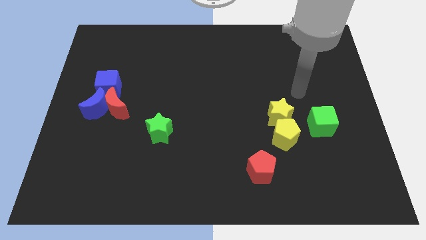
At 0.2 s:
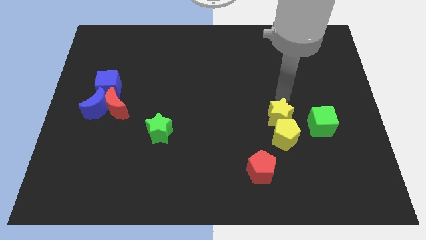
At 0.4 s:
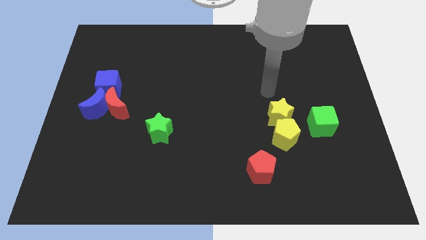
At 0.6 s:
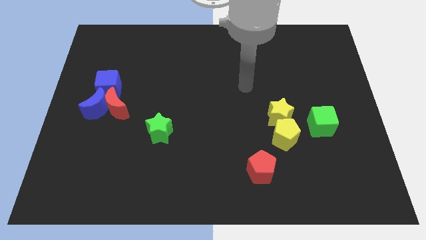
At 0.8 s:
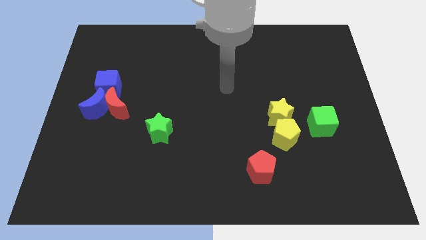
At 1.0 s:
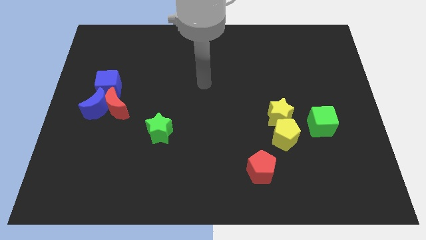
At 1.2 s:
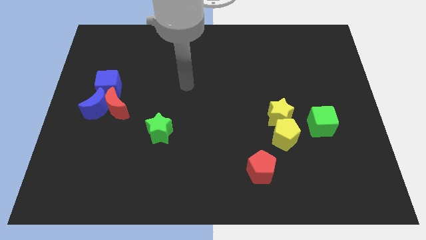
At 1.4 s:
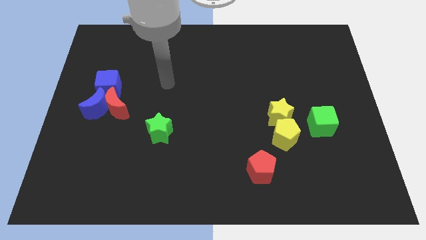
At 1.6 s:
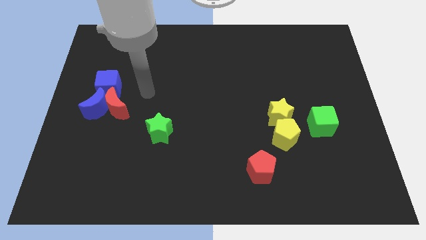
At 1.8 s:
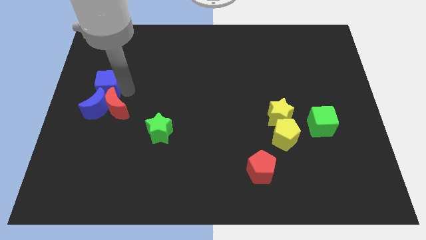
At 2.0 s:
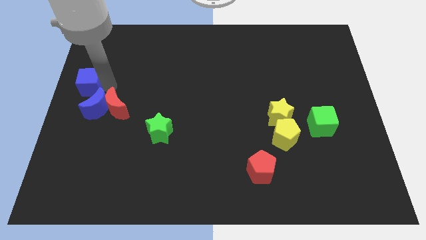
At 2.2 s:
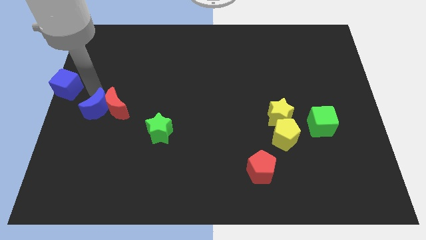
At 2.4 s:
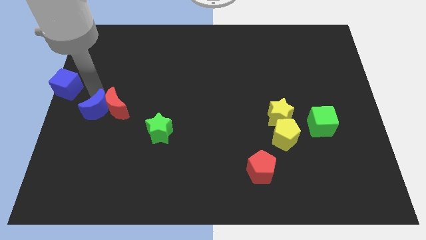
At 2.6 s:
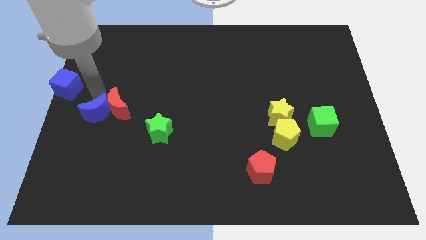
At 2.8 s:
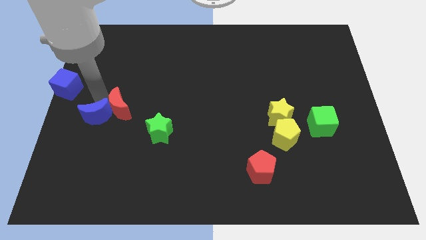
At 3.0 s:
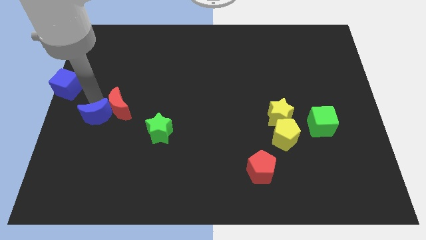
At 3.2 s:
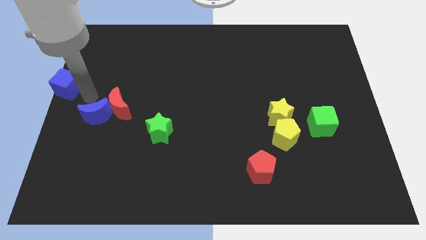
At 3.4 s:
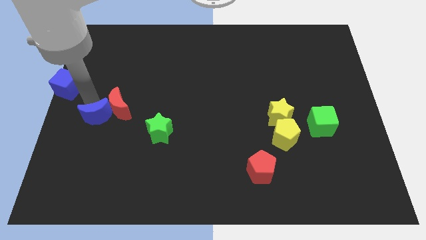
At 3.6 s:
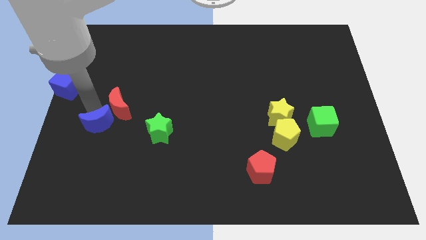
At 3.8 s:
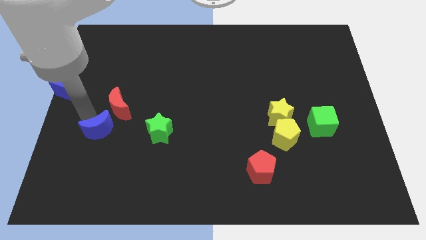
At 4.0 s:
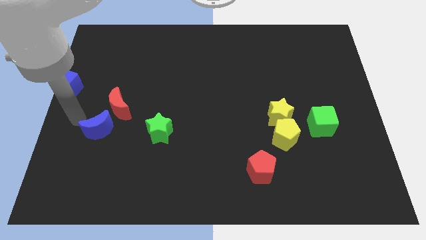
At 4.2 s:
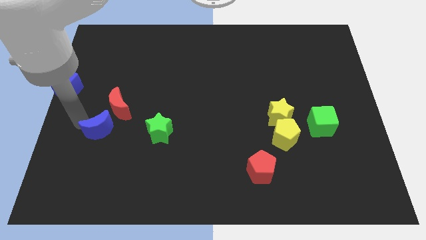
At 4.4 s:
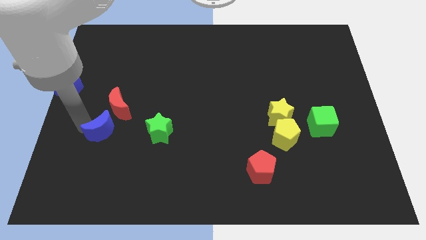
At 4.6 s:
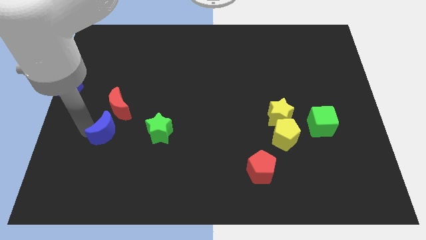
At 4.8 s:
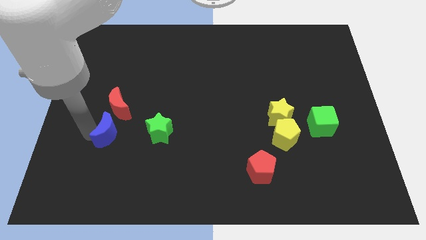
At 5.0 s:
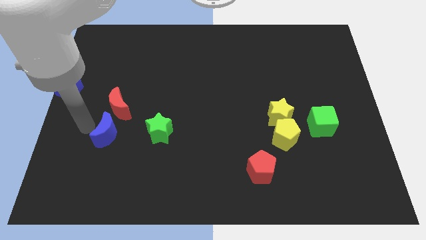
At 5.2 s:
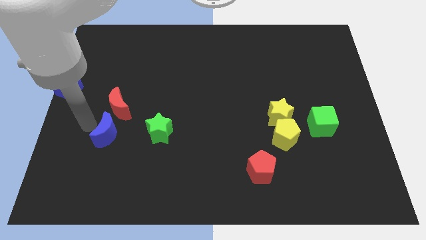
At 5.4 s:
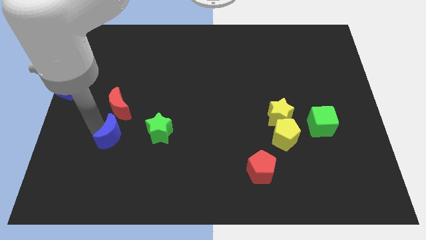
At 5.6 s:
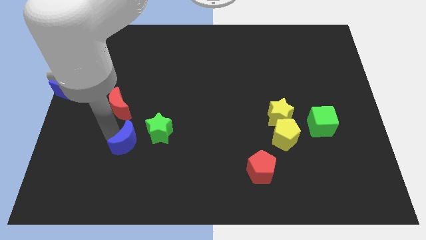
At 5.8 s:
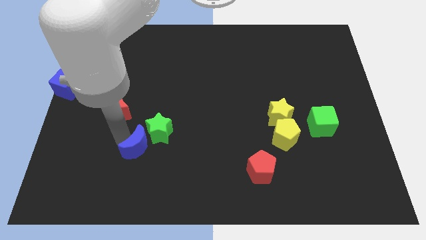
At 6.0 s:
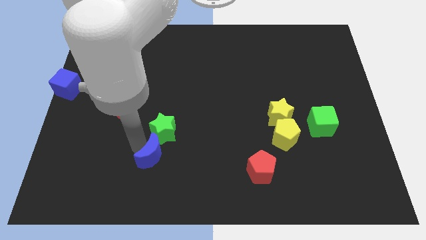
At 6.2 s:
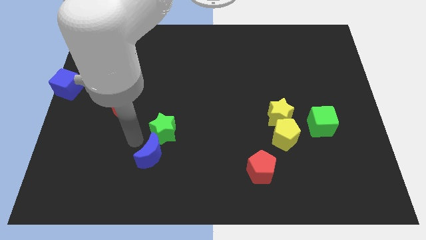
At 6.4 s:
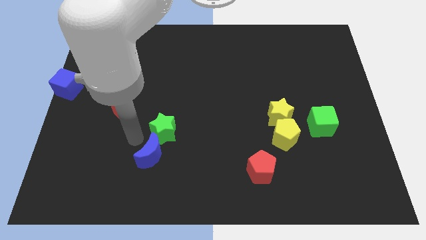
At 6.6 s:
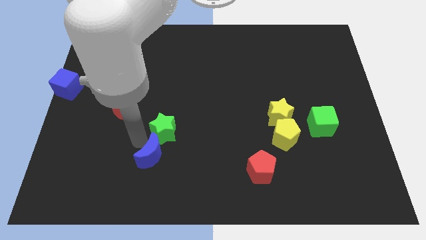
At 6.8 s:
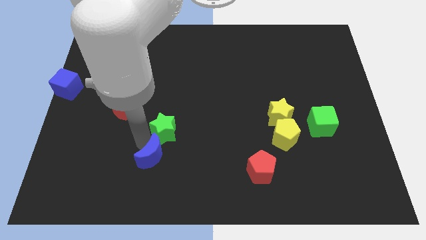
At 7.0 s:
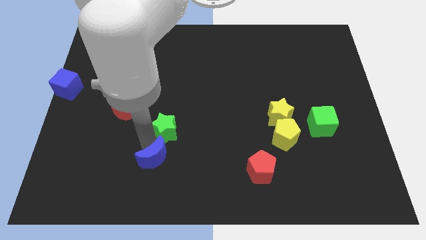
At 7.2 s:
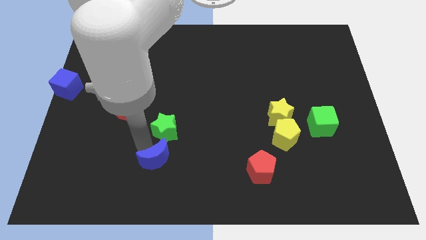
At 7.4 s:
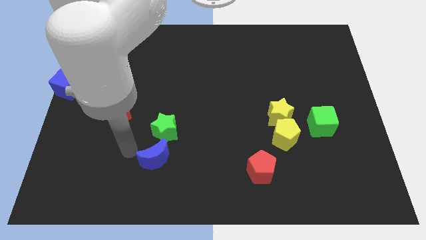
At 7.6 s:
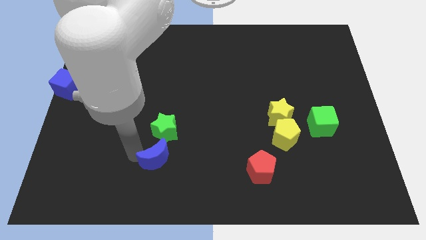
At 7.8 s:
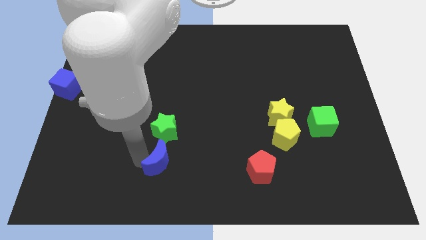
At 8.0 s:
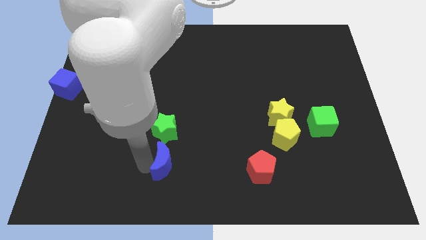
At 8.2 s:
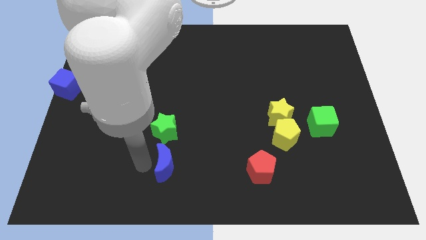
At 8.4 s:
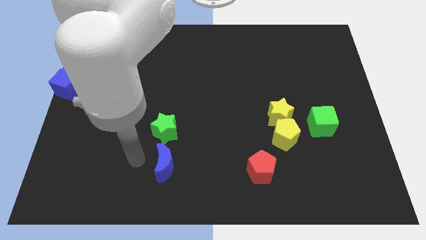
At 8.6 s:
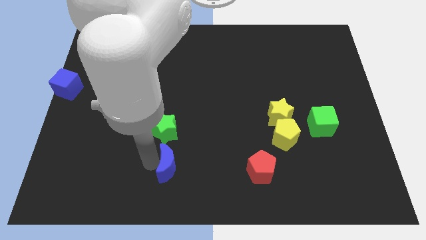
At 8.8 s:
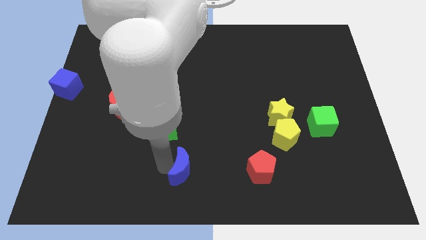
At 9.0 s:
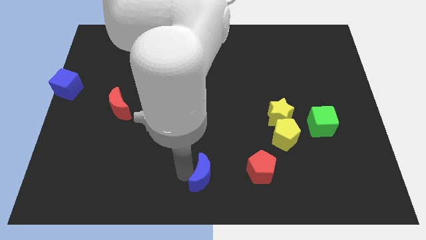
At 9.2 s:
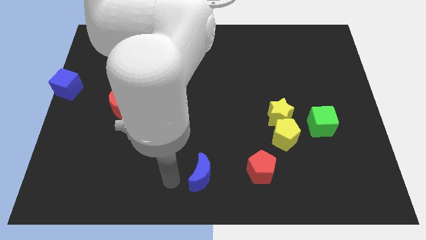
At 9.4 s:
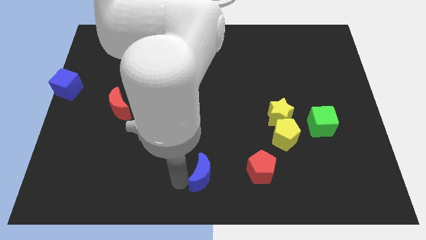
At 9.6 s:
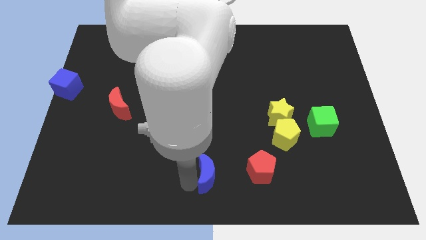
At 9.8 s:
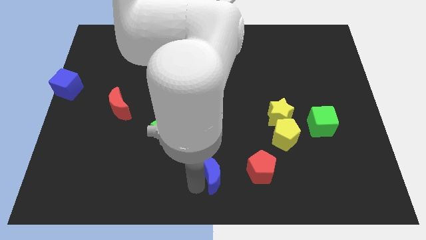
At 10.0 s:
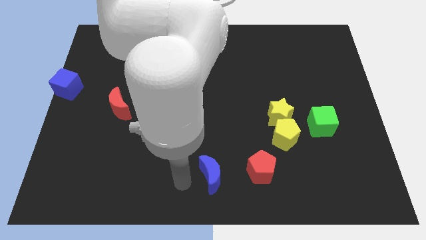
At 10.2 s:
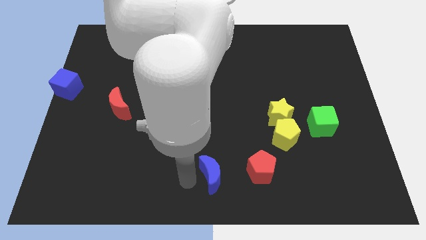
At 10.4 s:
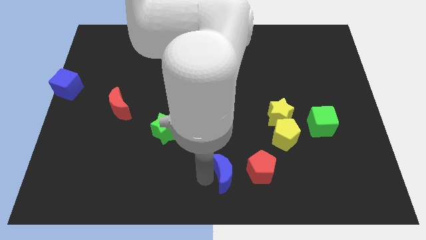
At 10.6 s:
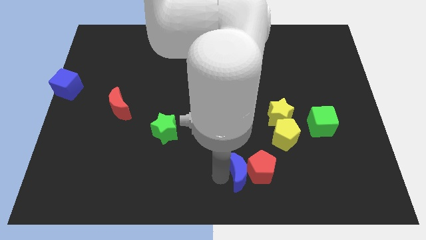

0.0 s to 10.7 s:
move the blue moon close to the red pentagon

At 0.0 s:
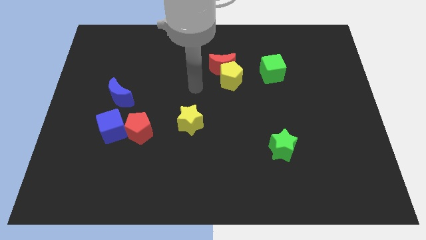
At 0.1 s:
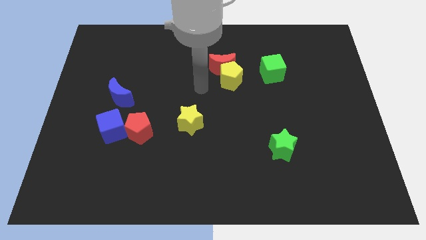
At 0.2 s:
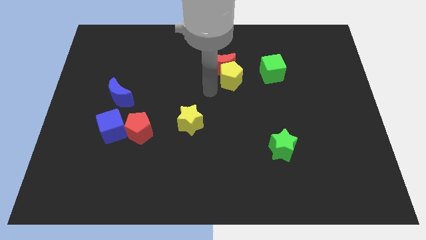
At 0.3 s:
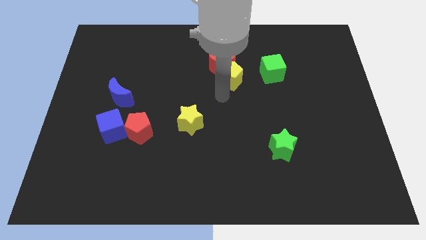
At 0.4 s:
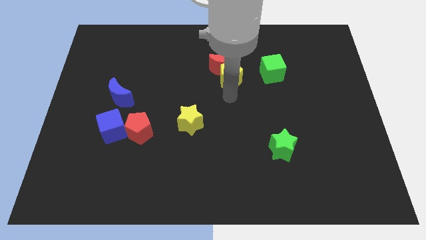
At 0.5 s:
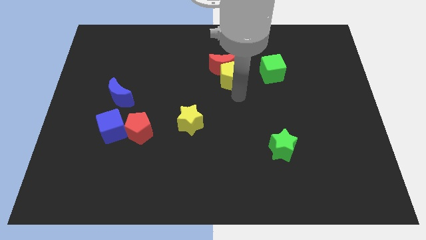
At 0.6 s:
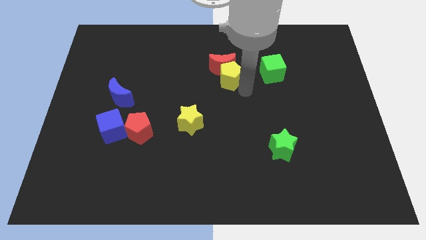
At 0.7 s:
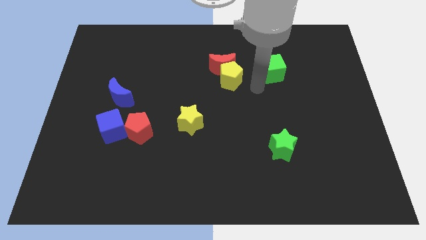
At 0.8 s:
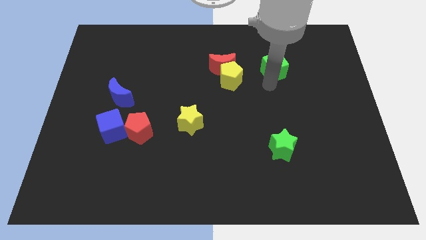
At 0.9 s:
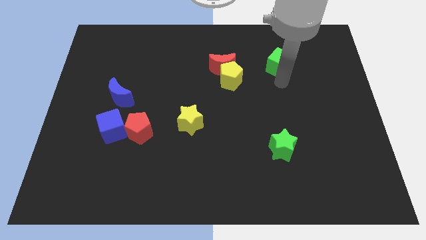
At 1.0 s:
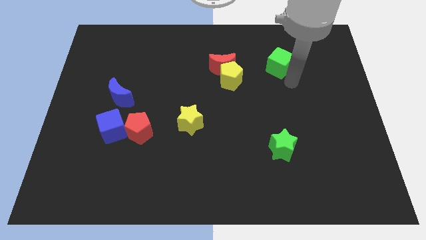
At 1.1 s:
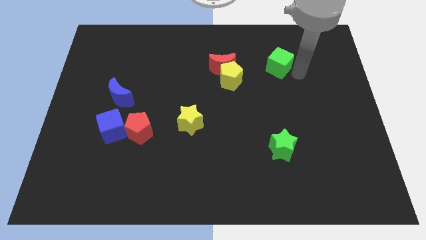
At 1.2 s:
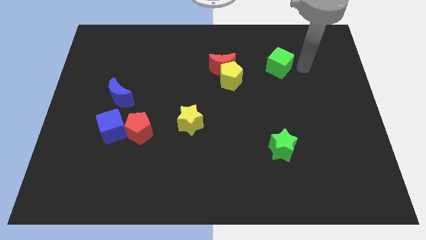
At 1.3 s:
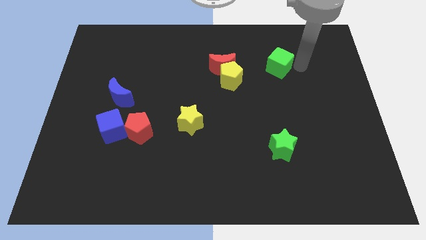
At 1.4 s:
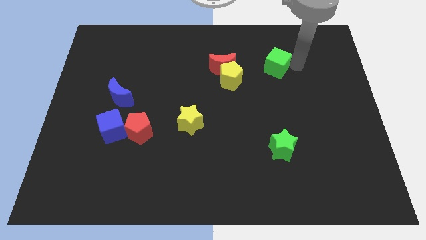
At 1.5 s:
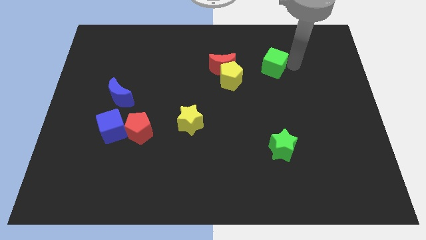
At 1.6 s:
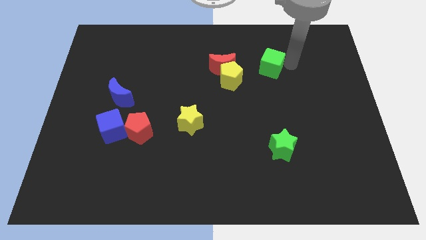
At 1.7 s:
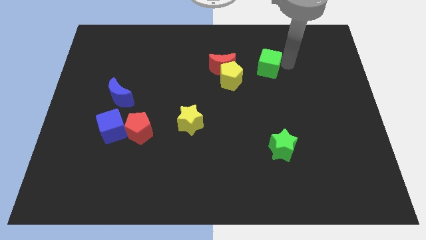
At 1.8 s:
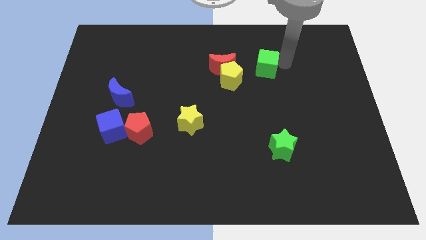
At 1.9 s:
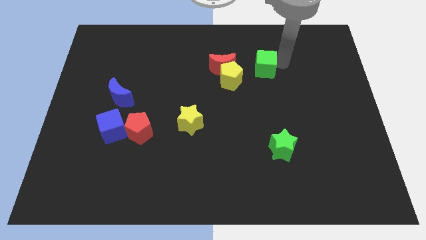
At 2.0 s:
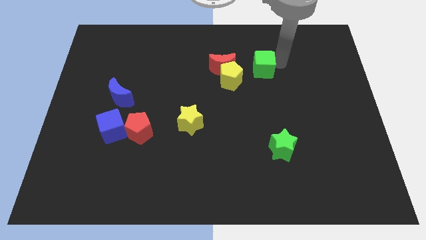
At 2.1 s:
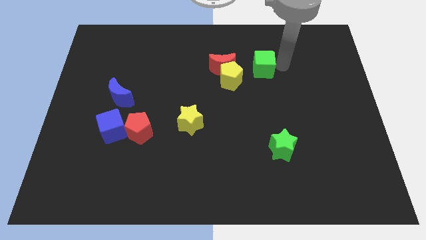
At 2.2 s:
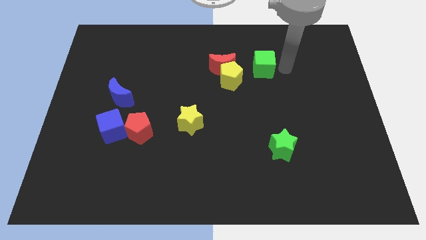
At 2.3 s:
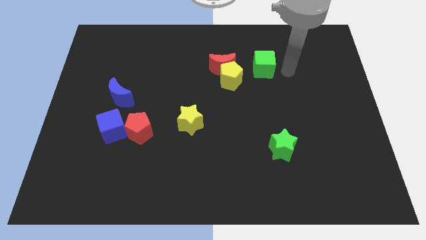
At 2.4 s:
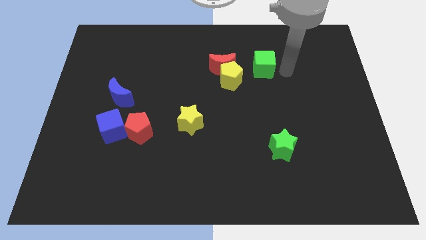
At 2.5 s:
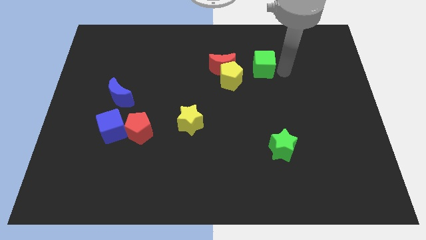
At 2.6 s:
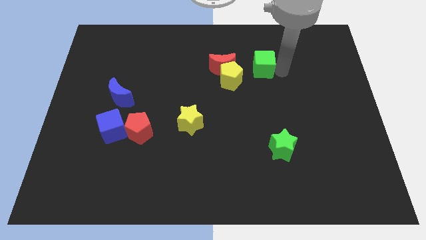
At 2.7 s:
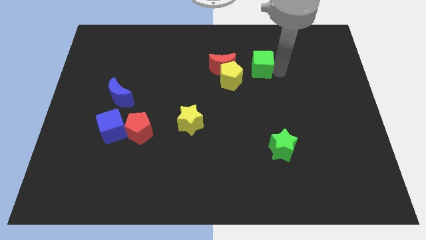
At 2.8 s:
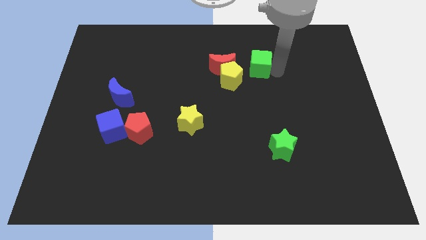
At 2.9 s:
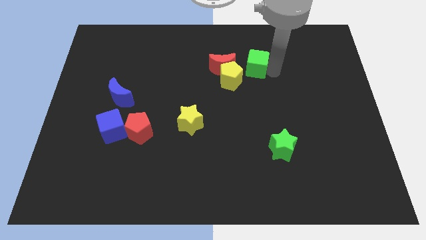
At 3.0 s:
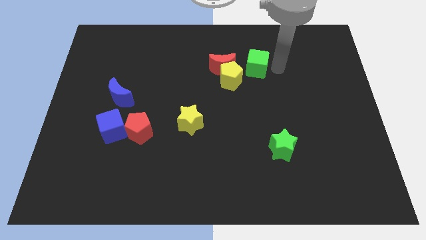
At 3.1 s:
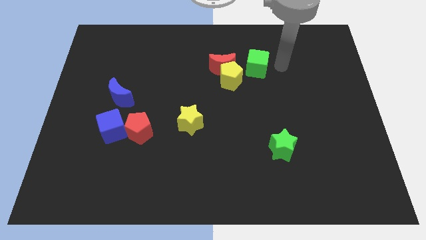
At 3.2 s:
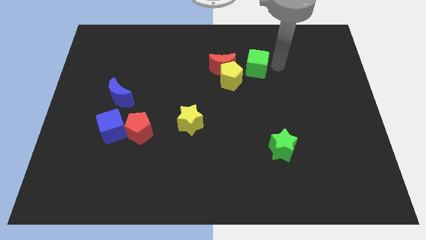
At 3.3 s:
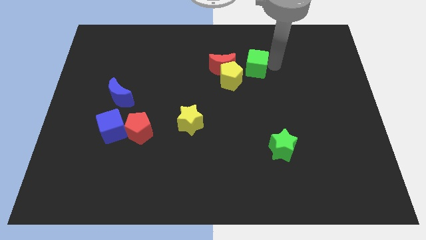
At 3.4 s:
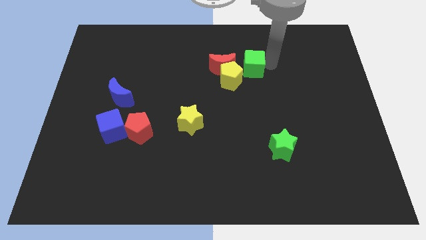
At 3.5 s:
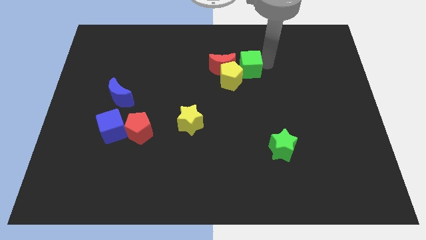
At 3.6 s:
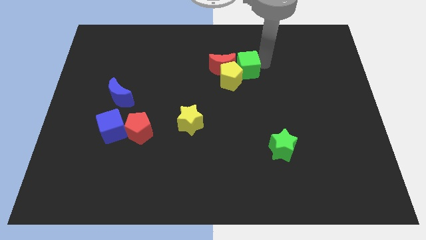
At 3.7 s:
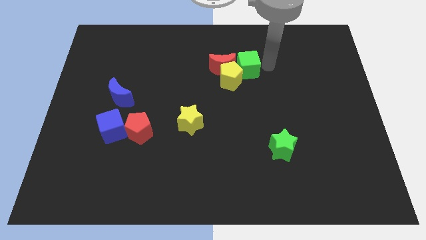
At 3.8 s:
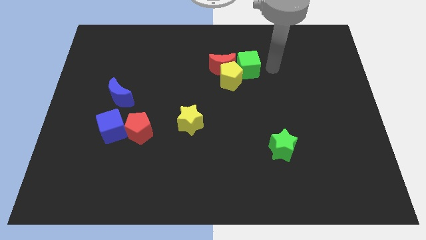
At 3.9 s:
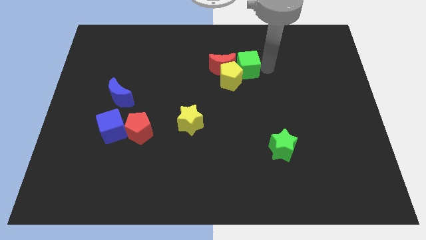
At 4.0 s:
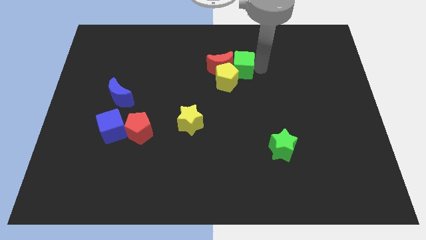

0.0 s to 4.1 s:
put the green cube next to the red moon
